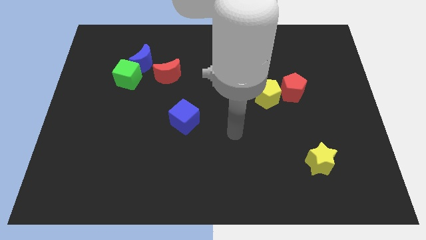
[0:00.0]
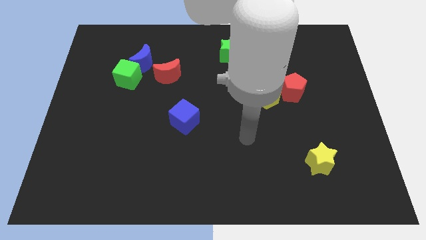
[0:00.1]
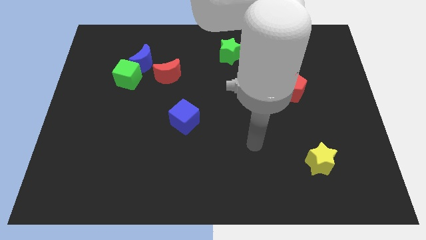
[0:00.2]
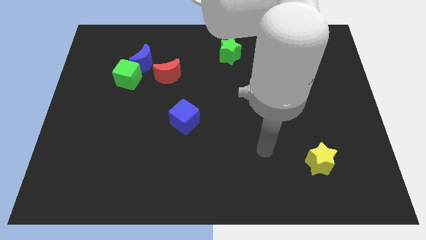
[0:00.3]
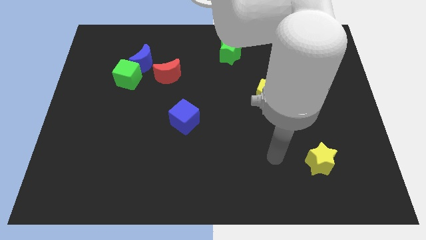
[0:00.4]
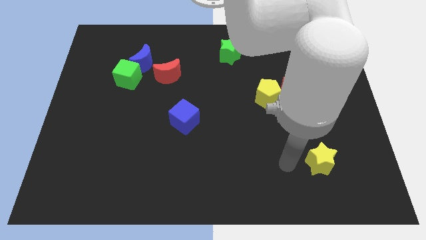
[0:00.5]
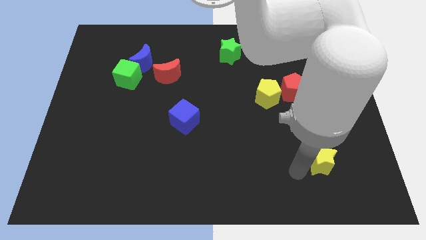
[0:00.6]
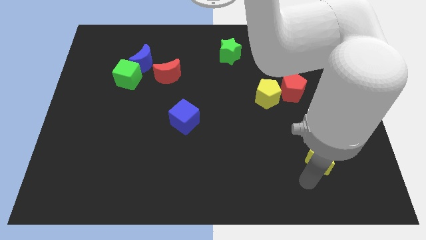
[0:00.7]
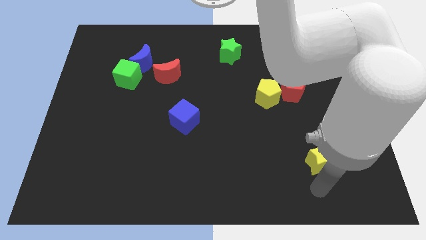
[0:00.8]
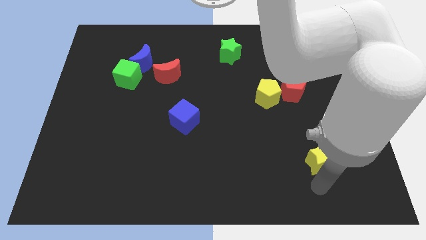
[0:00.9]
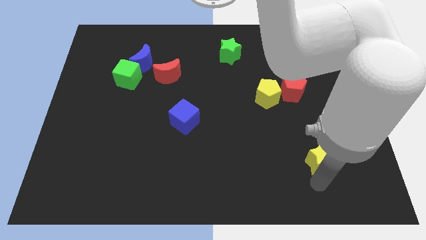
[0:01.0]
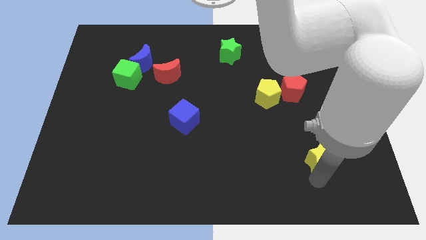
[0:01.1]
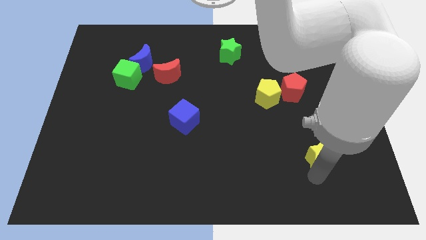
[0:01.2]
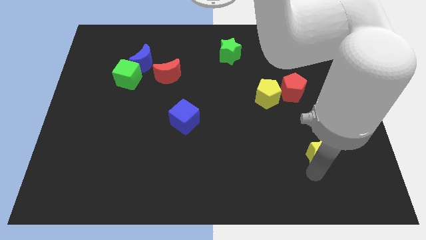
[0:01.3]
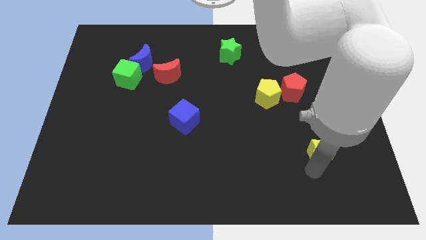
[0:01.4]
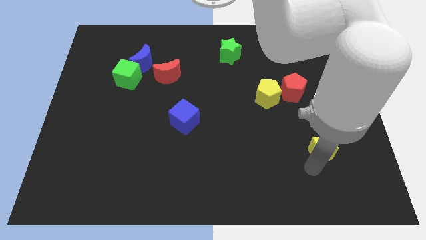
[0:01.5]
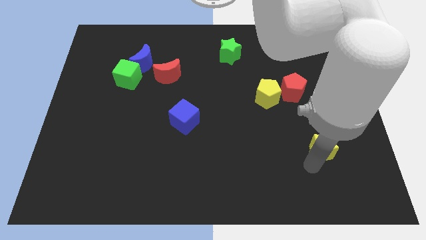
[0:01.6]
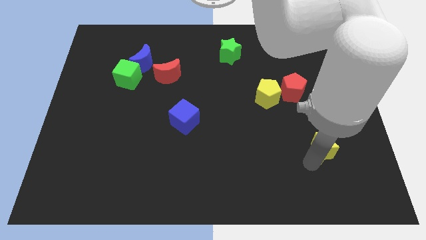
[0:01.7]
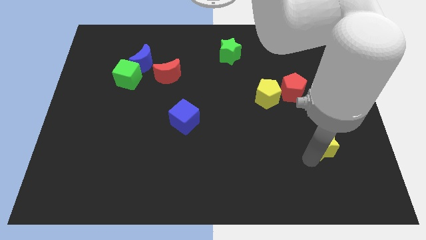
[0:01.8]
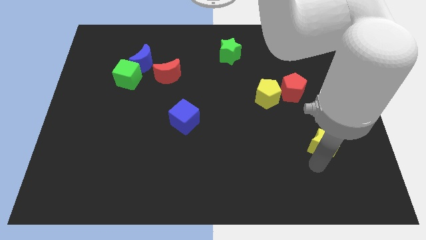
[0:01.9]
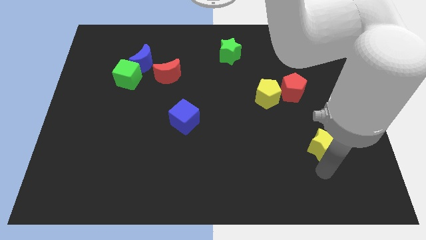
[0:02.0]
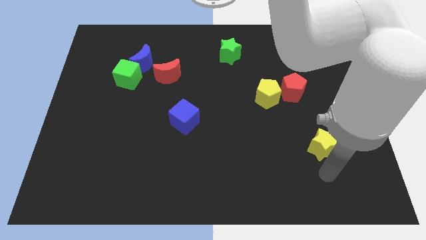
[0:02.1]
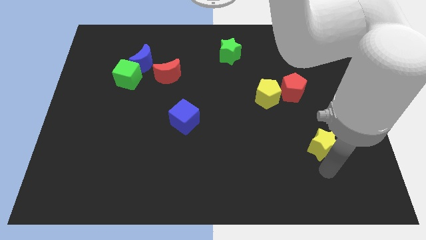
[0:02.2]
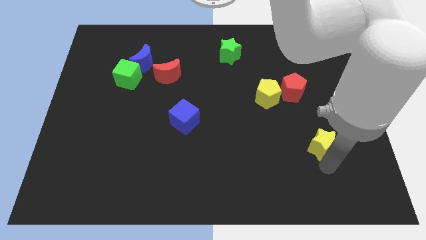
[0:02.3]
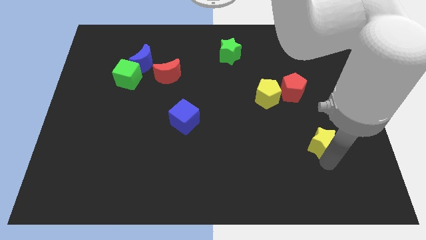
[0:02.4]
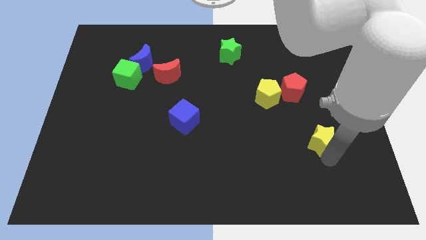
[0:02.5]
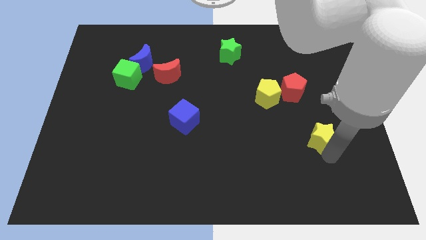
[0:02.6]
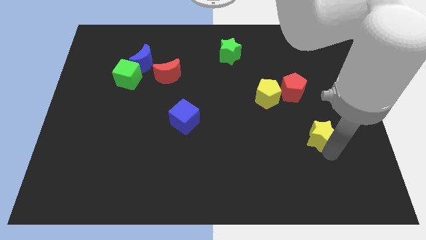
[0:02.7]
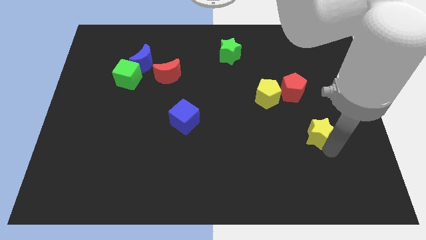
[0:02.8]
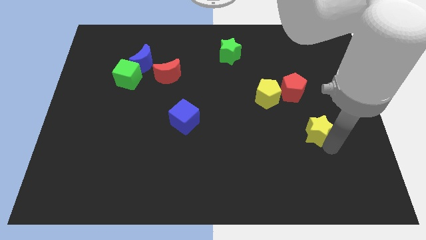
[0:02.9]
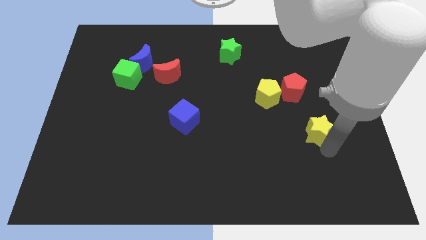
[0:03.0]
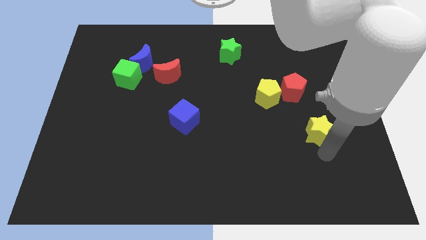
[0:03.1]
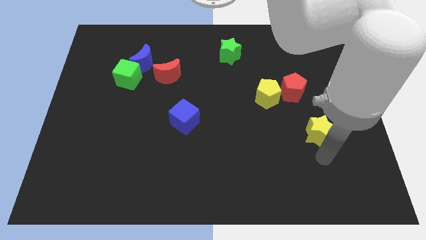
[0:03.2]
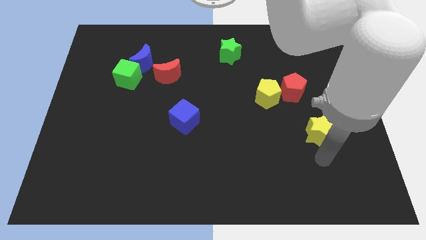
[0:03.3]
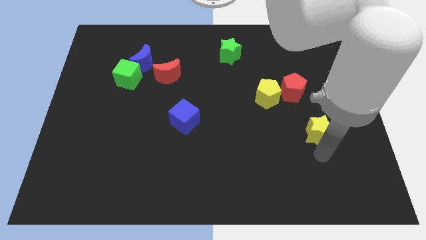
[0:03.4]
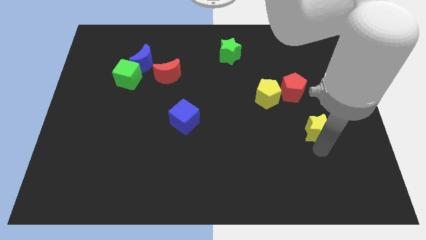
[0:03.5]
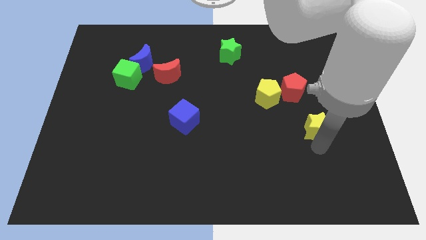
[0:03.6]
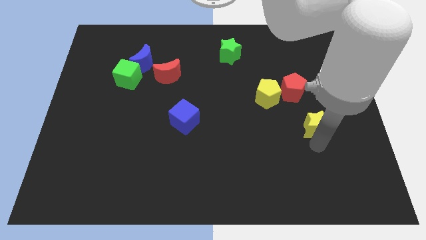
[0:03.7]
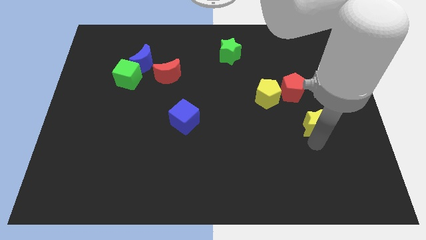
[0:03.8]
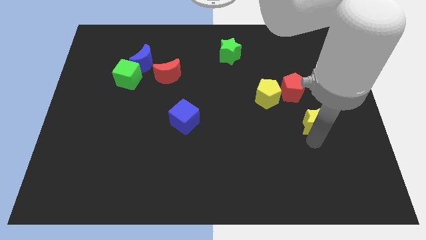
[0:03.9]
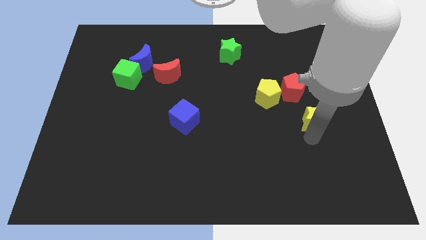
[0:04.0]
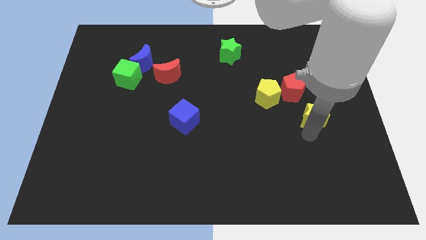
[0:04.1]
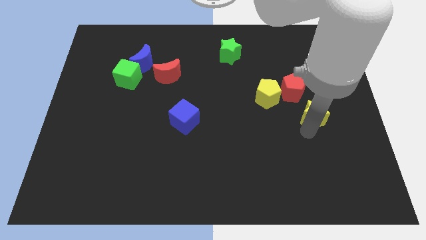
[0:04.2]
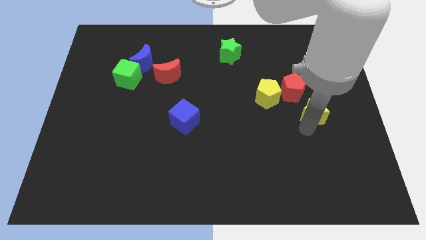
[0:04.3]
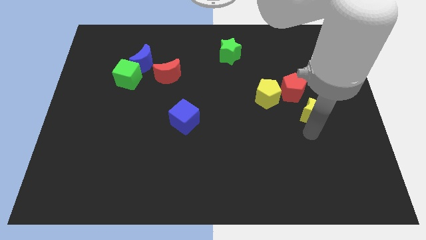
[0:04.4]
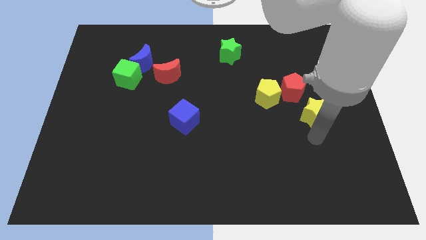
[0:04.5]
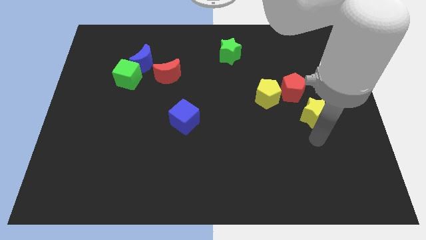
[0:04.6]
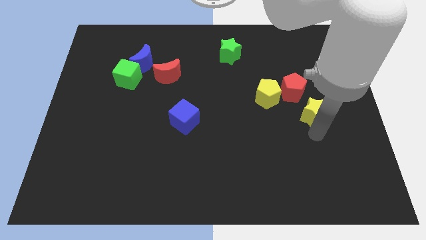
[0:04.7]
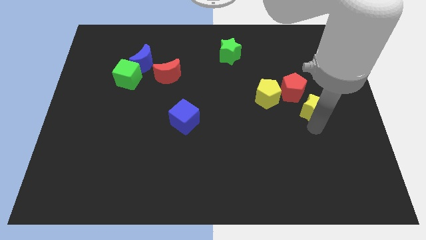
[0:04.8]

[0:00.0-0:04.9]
move the yellow star to the right side of the yellow pentagon

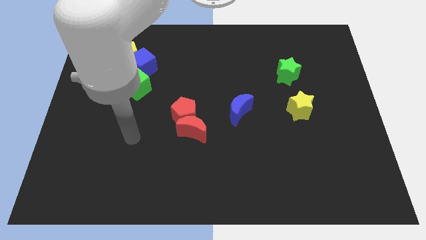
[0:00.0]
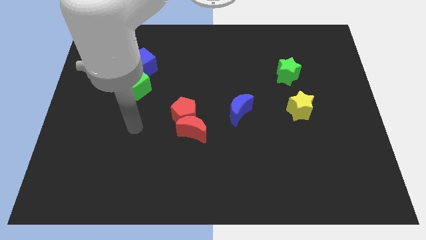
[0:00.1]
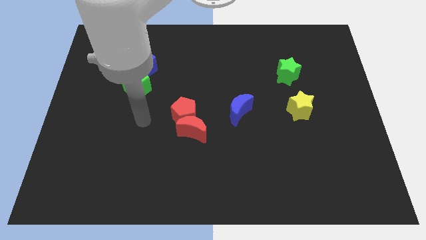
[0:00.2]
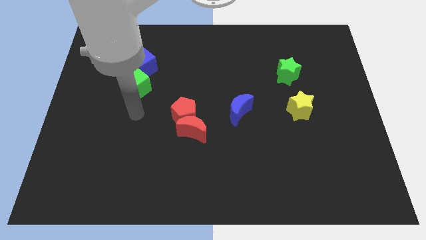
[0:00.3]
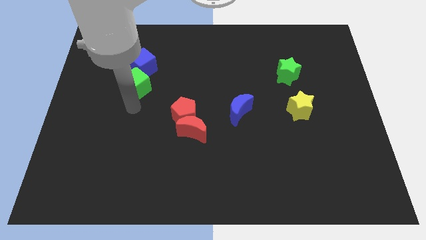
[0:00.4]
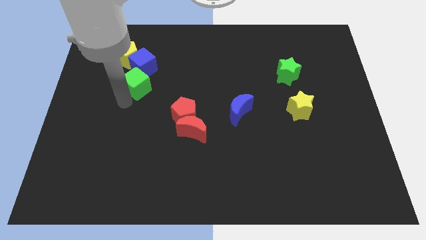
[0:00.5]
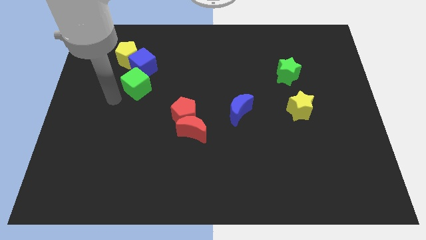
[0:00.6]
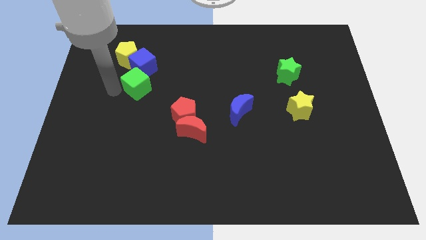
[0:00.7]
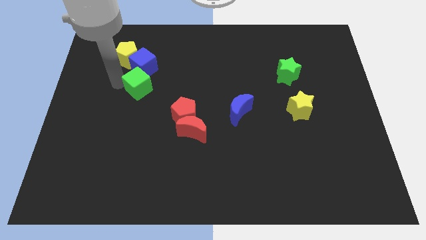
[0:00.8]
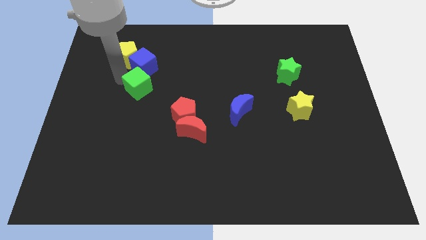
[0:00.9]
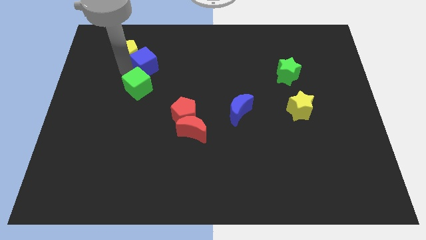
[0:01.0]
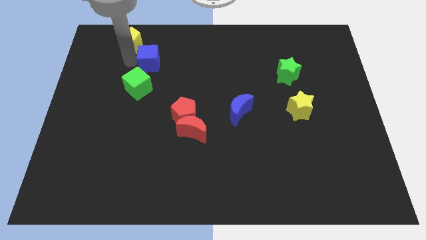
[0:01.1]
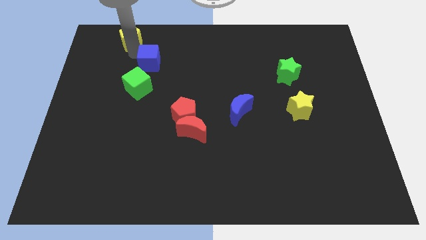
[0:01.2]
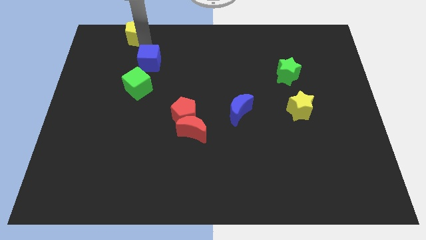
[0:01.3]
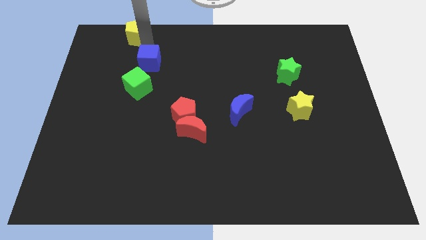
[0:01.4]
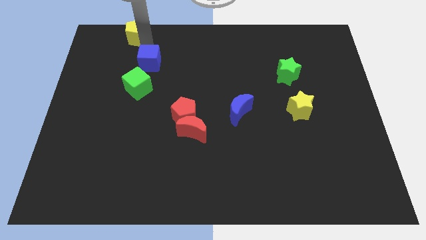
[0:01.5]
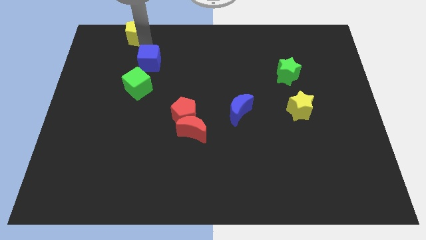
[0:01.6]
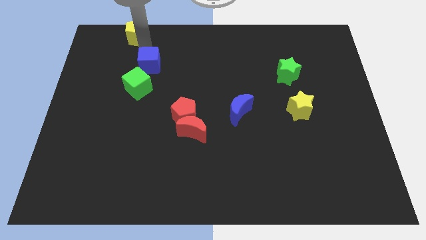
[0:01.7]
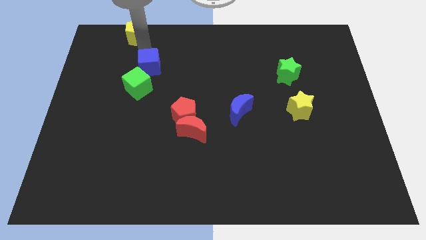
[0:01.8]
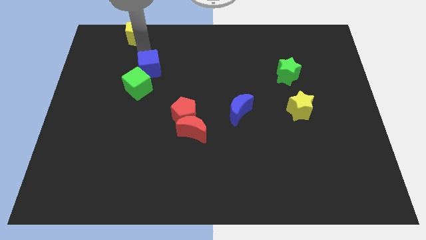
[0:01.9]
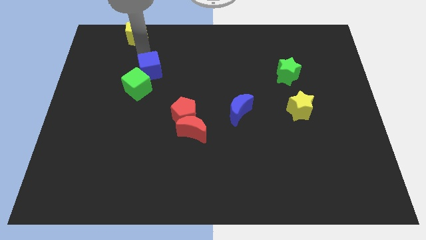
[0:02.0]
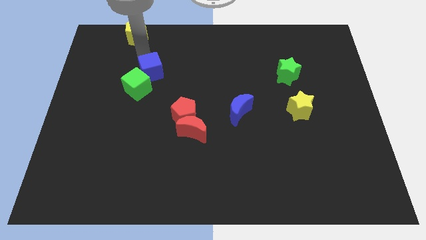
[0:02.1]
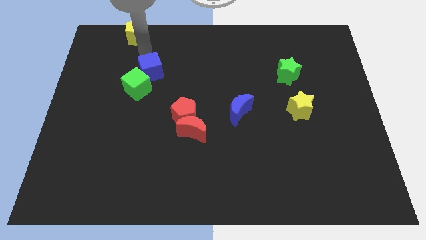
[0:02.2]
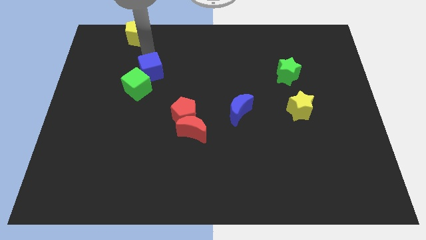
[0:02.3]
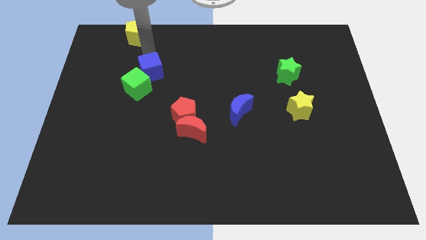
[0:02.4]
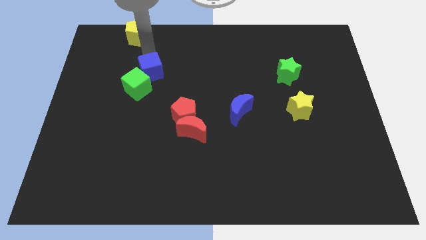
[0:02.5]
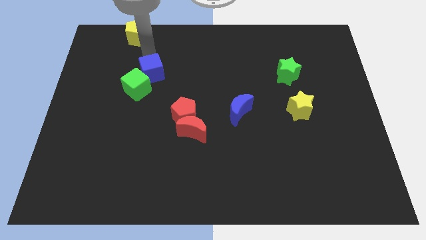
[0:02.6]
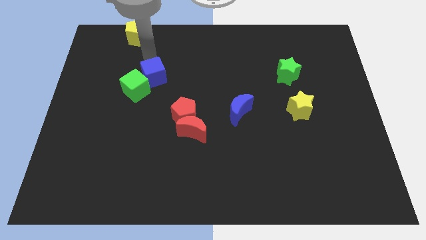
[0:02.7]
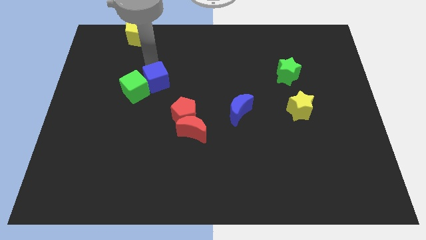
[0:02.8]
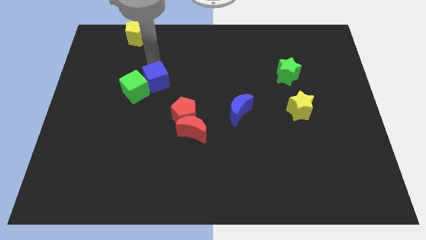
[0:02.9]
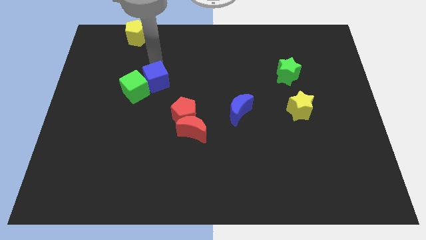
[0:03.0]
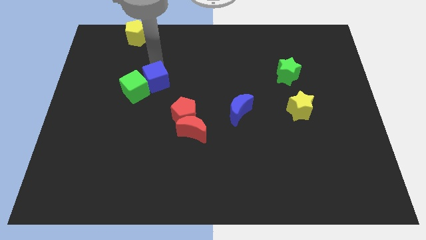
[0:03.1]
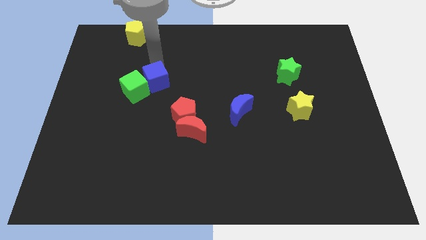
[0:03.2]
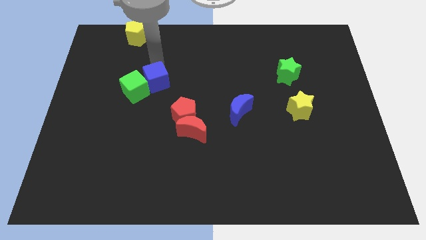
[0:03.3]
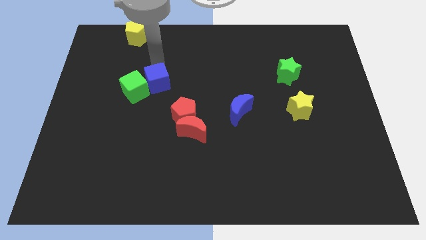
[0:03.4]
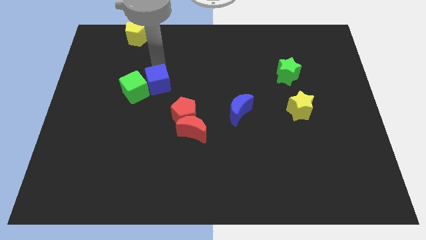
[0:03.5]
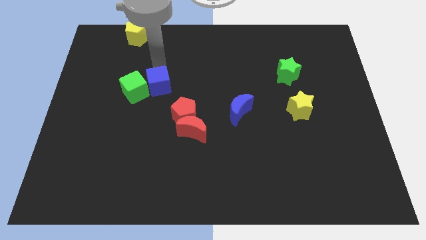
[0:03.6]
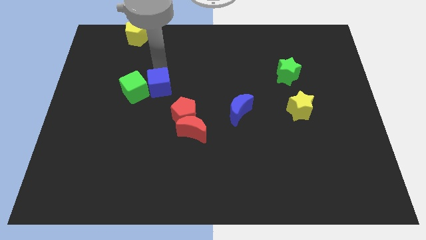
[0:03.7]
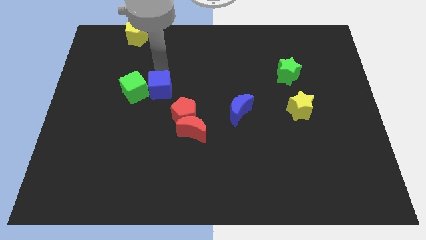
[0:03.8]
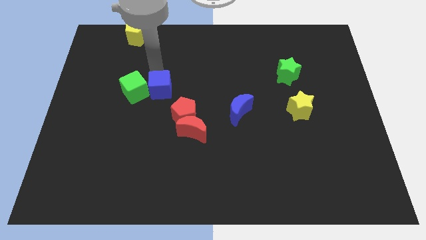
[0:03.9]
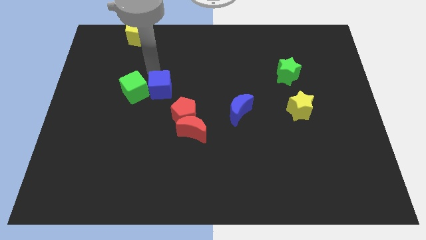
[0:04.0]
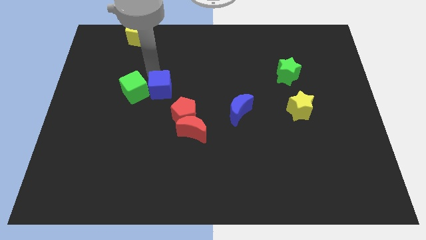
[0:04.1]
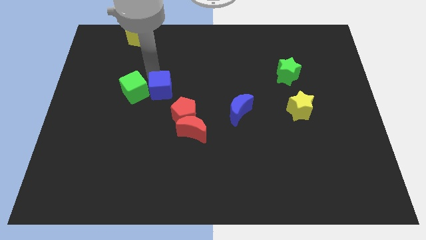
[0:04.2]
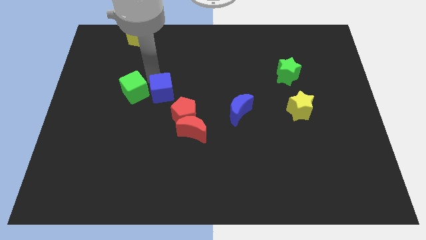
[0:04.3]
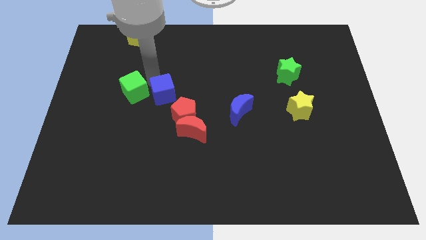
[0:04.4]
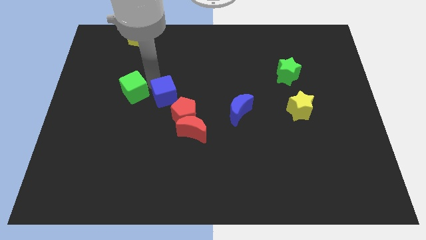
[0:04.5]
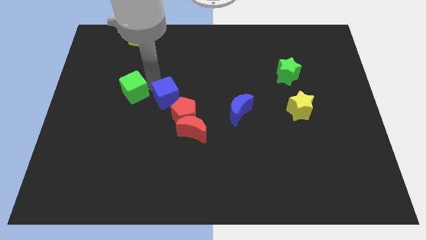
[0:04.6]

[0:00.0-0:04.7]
move the blue cube to the top left side of the red moon
